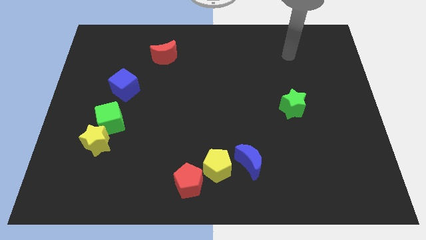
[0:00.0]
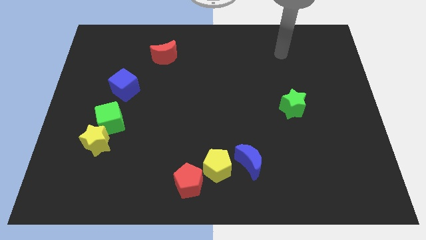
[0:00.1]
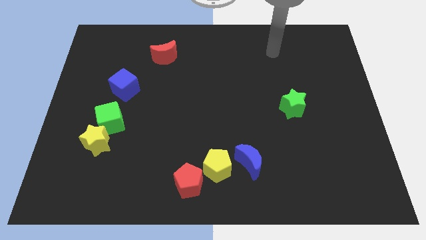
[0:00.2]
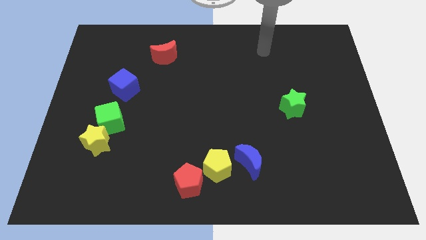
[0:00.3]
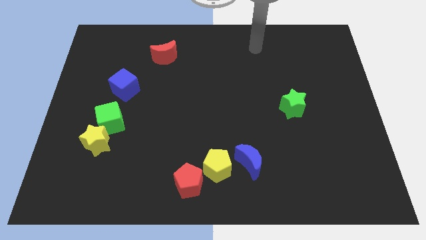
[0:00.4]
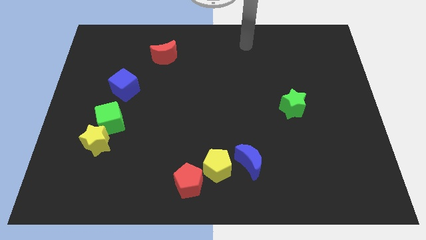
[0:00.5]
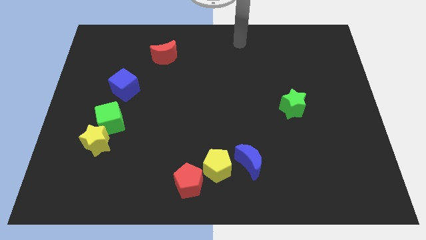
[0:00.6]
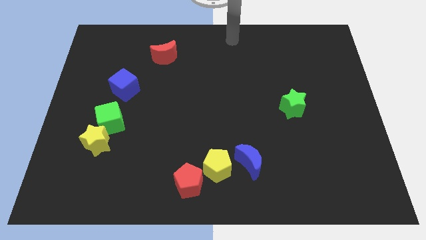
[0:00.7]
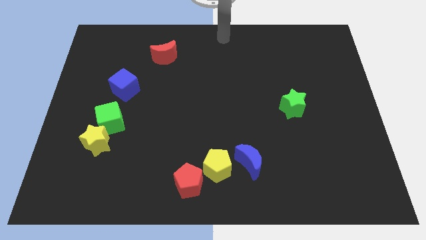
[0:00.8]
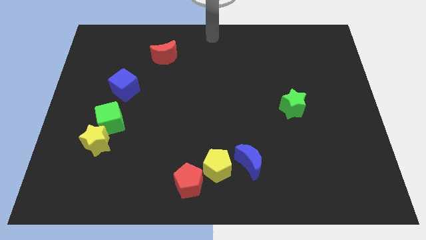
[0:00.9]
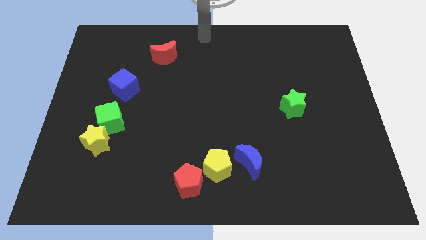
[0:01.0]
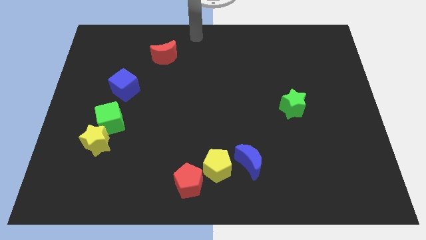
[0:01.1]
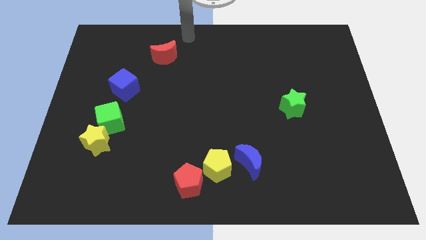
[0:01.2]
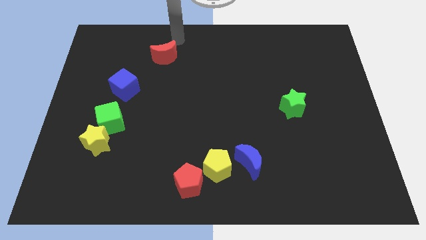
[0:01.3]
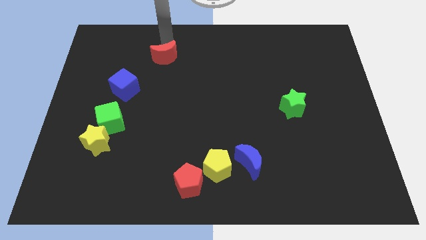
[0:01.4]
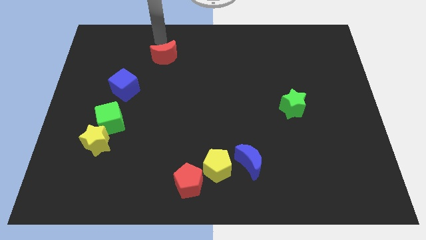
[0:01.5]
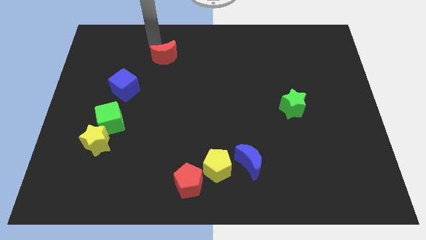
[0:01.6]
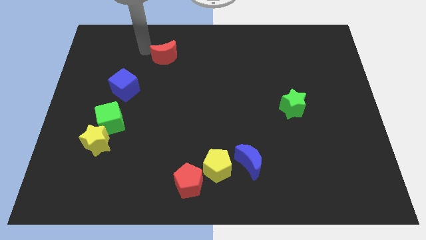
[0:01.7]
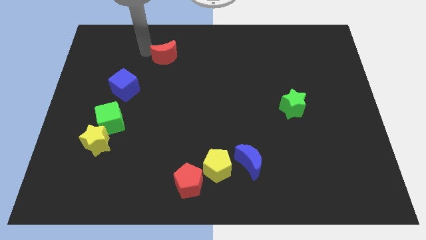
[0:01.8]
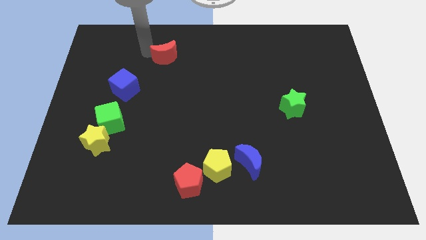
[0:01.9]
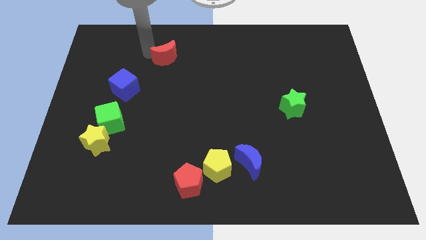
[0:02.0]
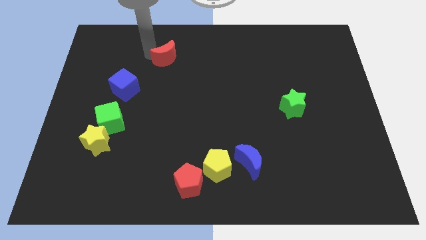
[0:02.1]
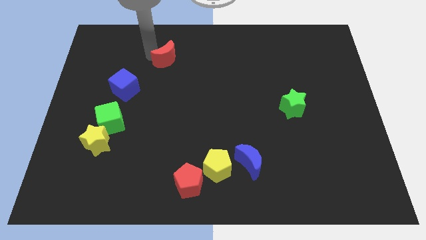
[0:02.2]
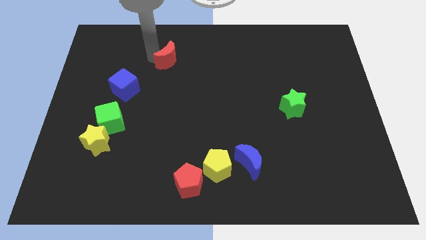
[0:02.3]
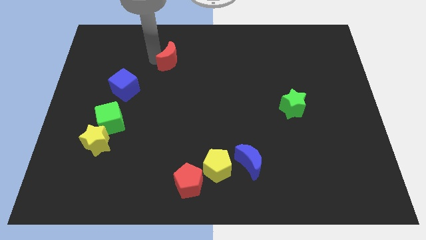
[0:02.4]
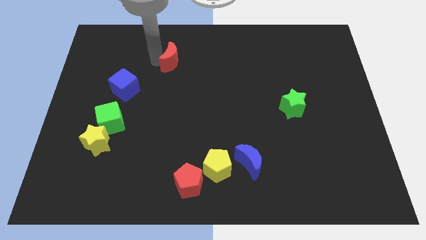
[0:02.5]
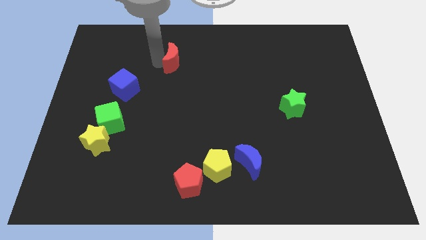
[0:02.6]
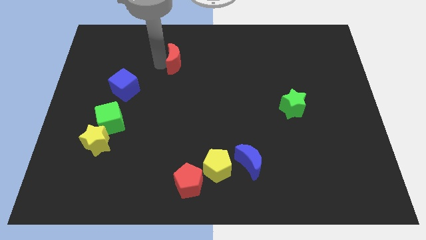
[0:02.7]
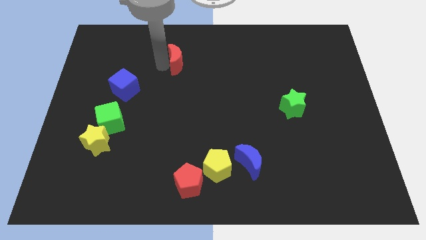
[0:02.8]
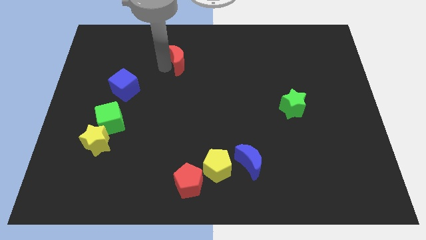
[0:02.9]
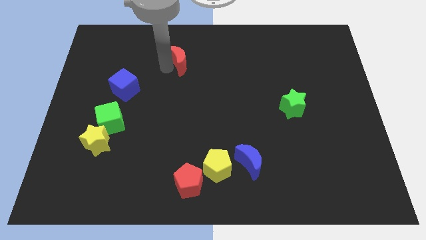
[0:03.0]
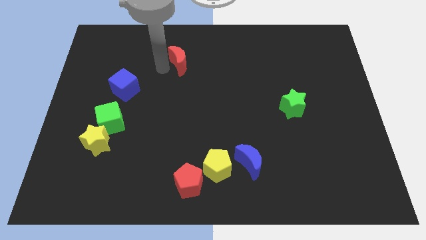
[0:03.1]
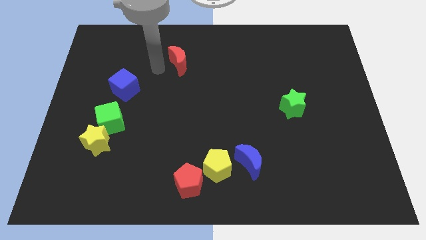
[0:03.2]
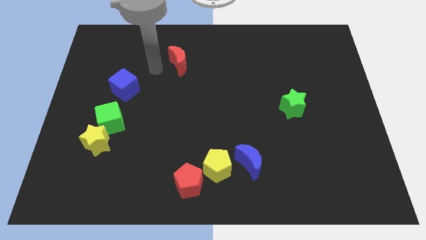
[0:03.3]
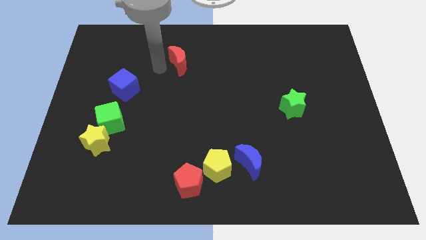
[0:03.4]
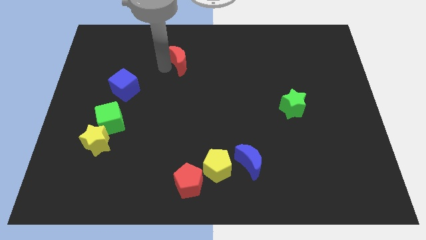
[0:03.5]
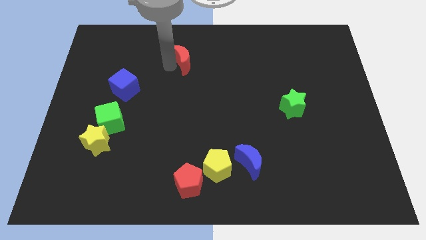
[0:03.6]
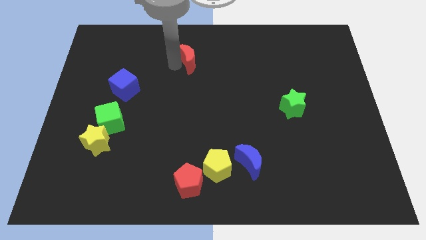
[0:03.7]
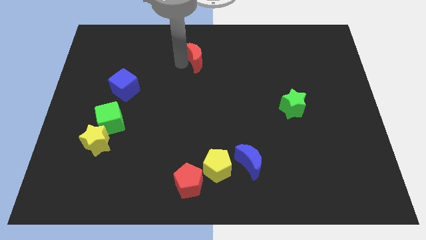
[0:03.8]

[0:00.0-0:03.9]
slightly push the red moon to the right

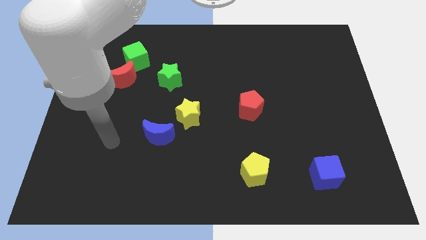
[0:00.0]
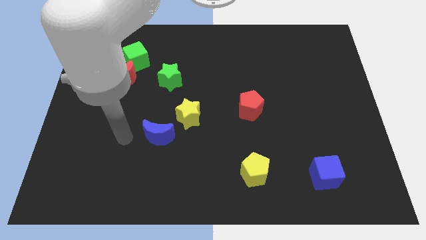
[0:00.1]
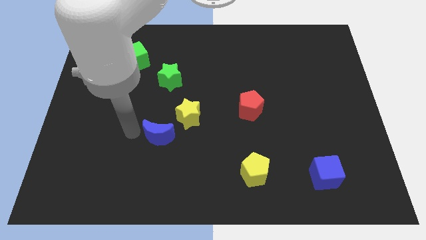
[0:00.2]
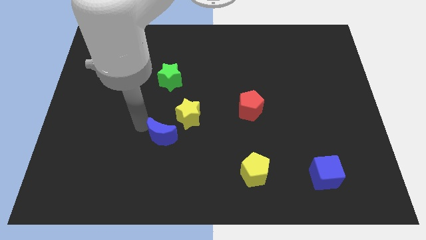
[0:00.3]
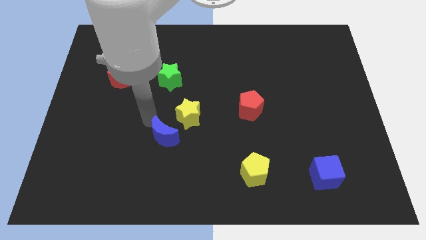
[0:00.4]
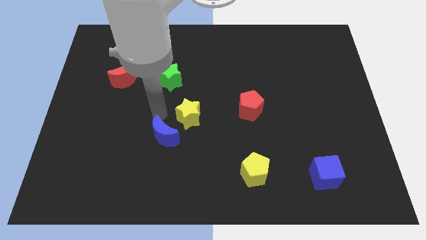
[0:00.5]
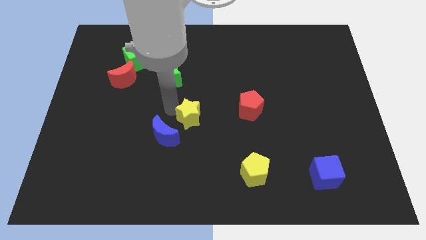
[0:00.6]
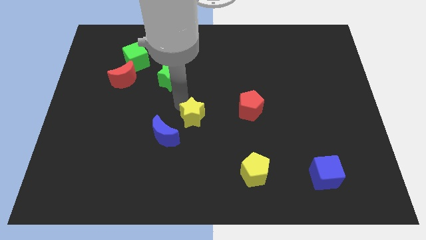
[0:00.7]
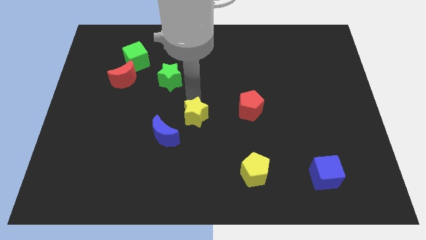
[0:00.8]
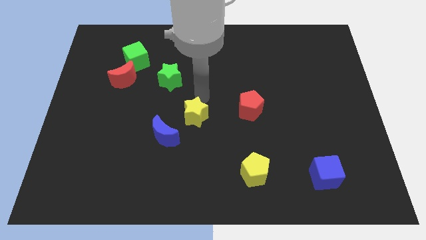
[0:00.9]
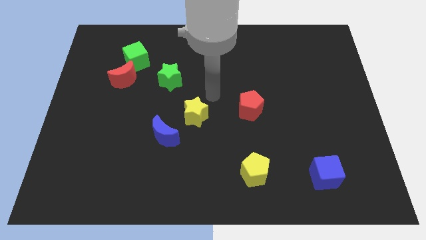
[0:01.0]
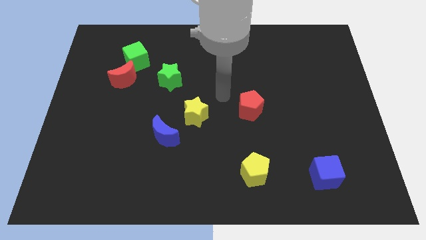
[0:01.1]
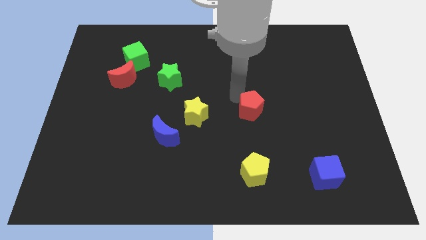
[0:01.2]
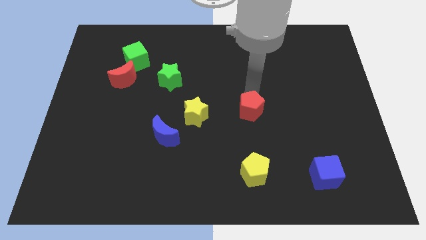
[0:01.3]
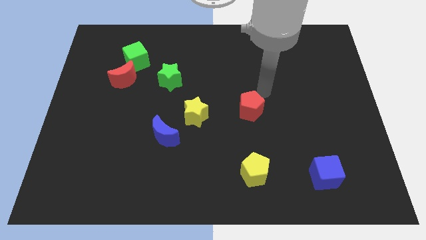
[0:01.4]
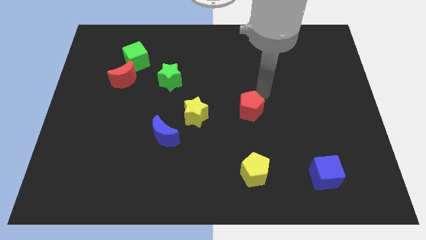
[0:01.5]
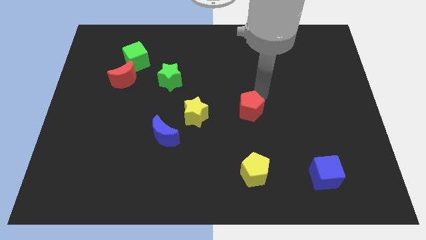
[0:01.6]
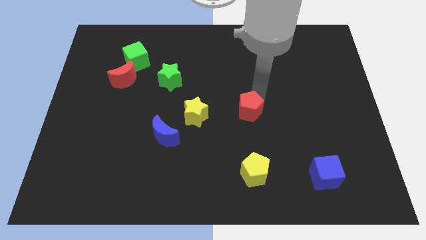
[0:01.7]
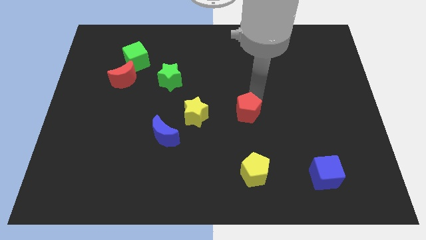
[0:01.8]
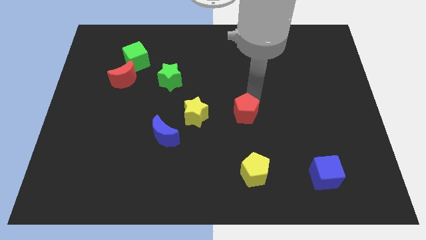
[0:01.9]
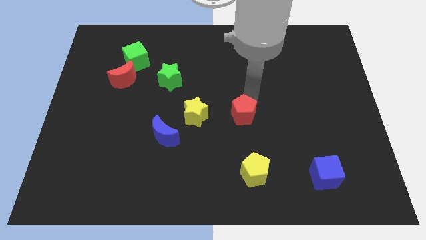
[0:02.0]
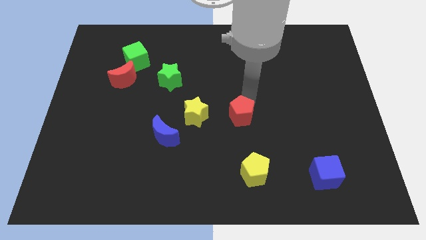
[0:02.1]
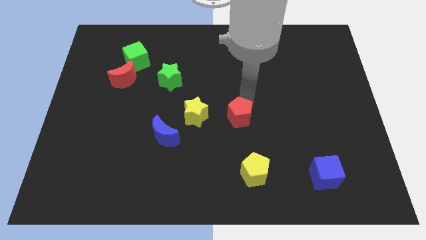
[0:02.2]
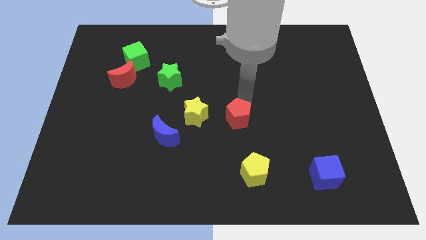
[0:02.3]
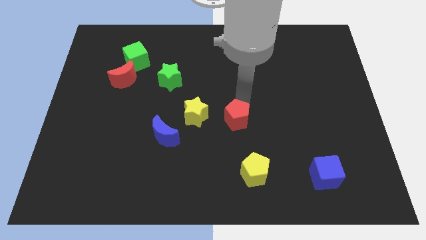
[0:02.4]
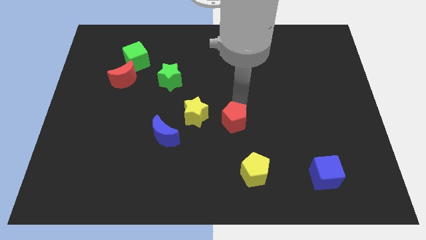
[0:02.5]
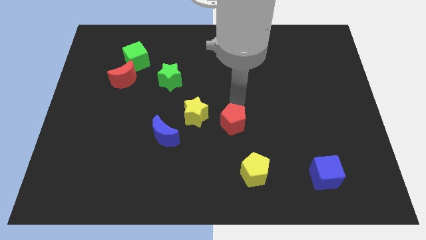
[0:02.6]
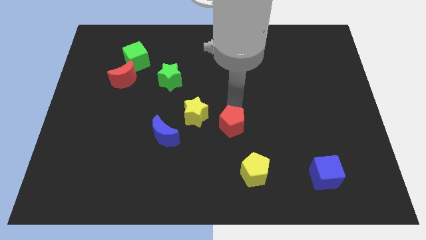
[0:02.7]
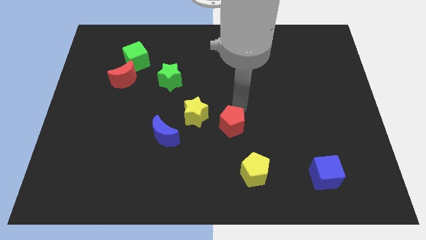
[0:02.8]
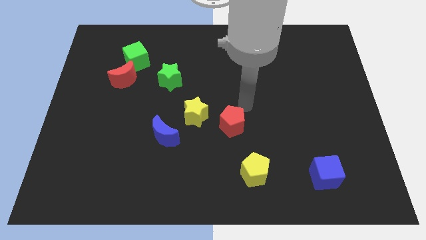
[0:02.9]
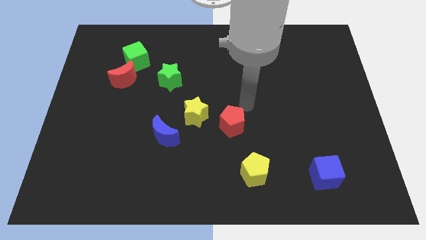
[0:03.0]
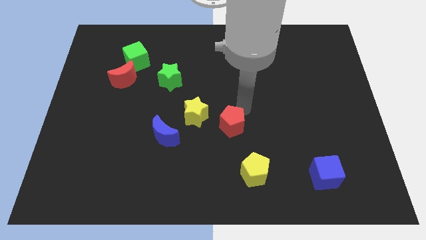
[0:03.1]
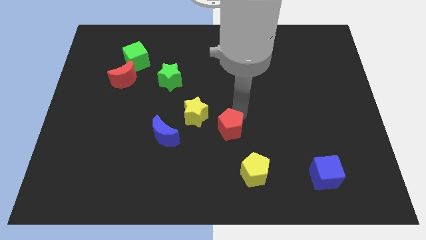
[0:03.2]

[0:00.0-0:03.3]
move the red pentagon a bit downwards and then left

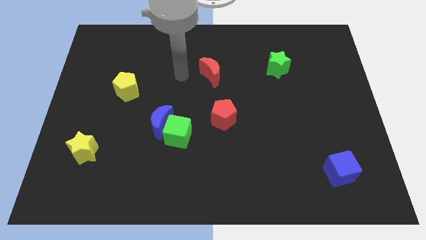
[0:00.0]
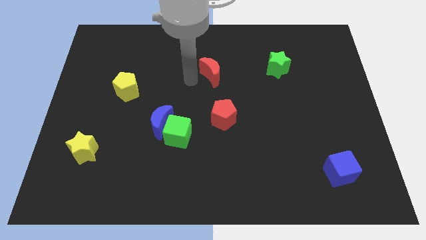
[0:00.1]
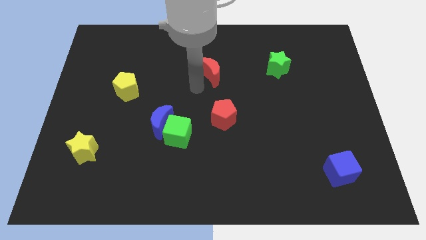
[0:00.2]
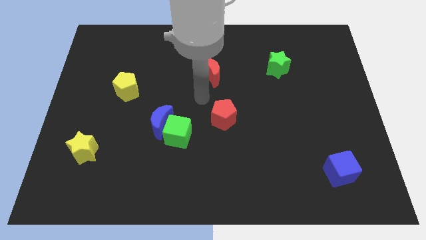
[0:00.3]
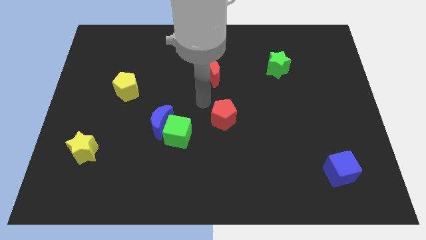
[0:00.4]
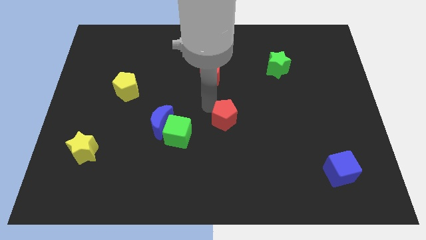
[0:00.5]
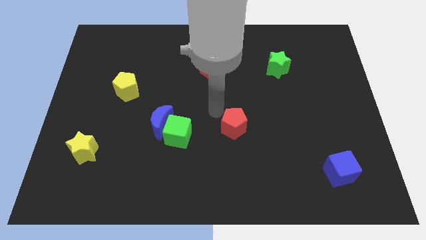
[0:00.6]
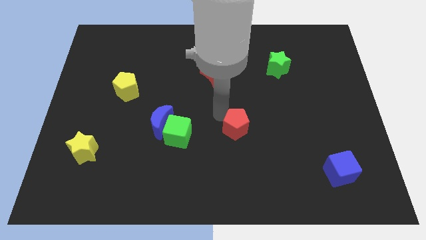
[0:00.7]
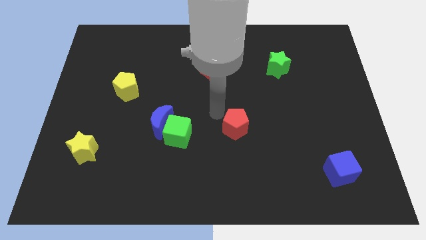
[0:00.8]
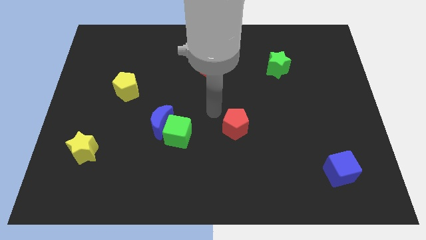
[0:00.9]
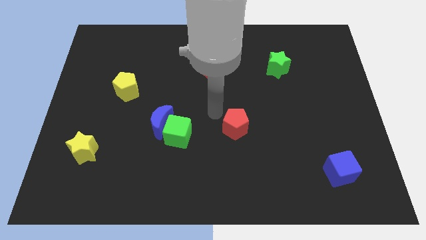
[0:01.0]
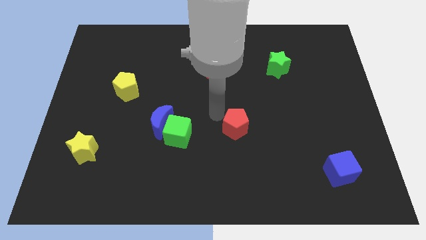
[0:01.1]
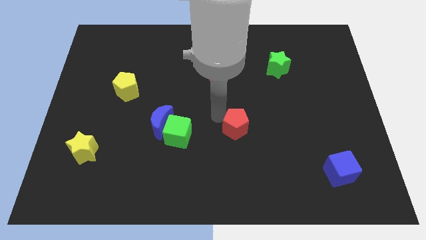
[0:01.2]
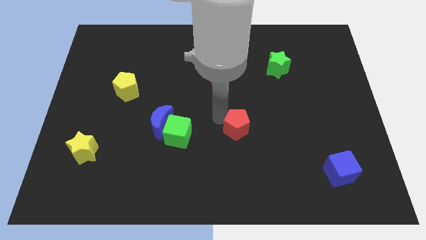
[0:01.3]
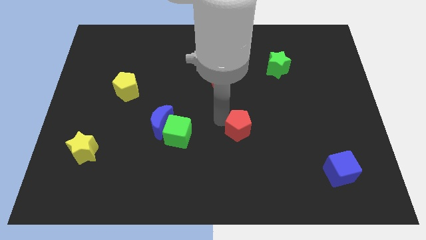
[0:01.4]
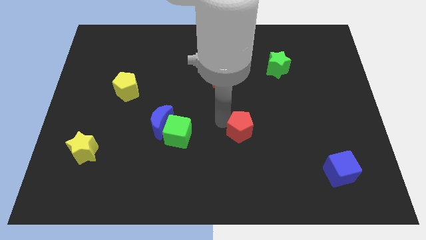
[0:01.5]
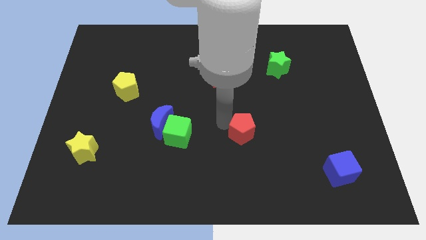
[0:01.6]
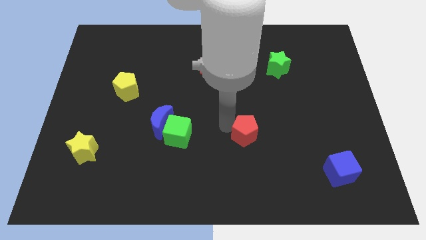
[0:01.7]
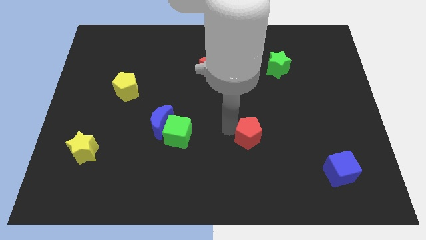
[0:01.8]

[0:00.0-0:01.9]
slide the red pentagon downwards and to the right diagonally a little bit
